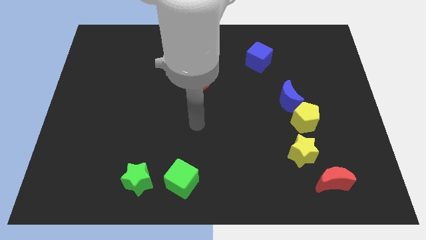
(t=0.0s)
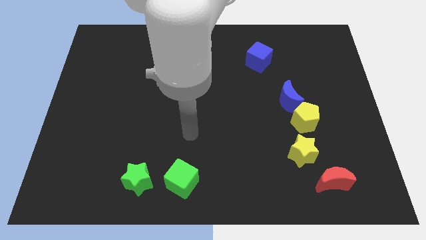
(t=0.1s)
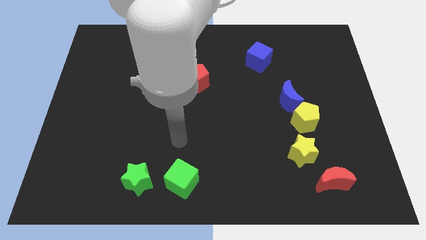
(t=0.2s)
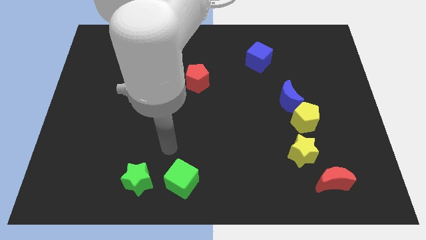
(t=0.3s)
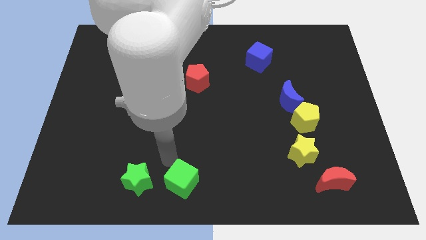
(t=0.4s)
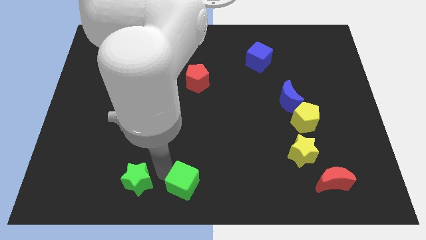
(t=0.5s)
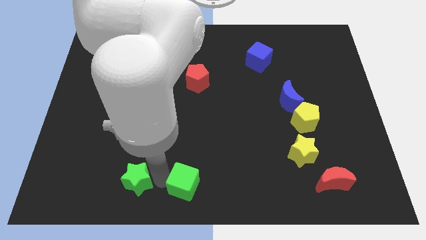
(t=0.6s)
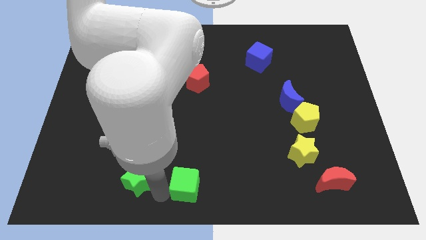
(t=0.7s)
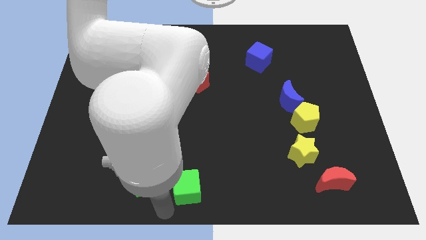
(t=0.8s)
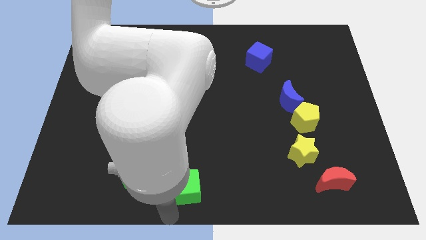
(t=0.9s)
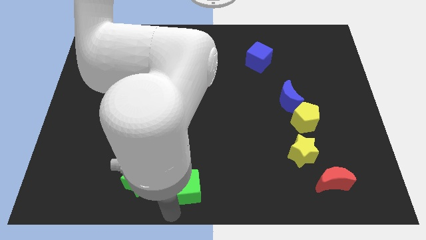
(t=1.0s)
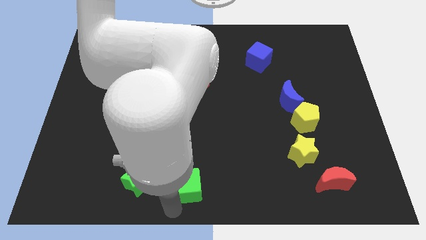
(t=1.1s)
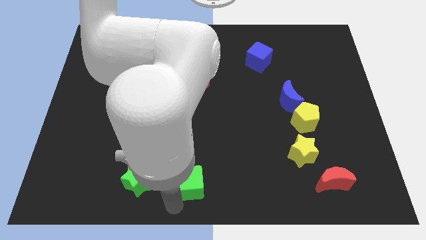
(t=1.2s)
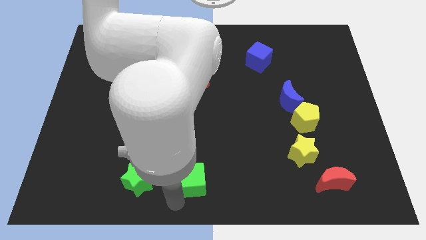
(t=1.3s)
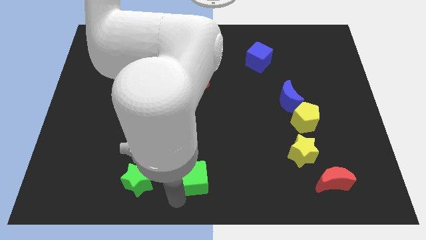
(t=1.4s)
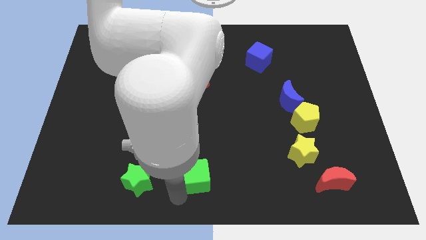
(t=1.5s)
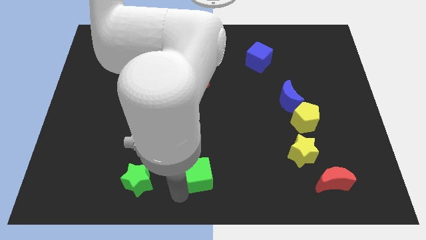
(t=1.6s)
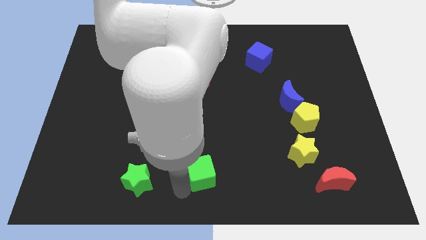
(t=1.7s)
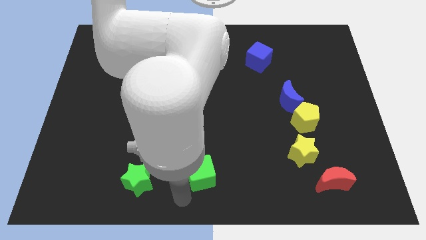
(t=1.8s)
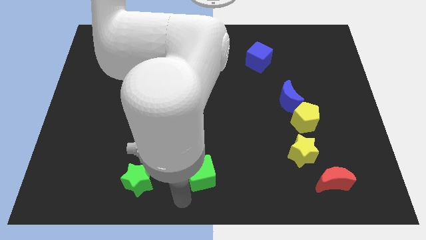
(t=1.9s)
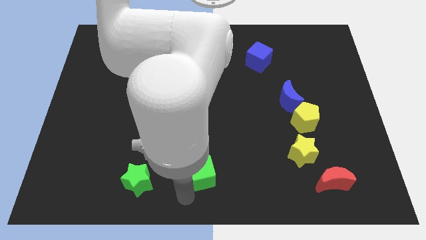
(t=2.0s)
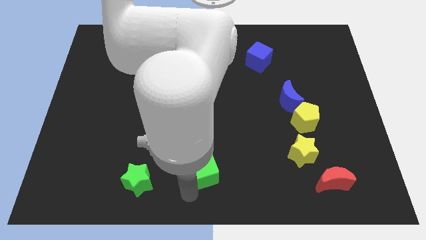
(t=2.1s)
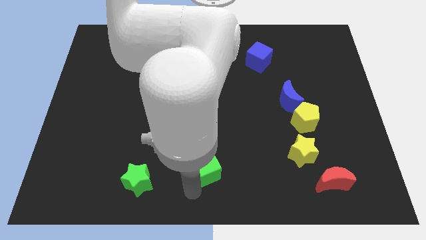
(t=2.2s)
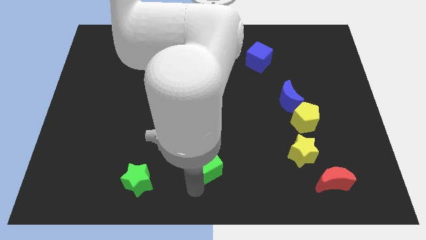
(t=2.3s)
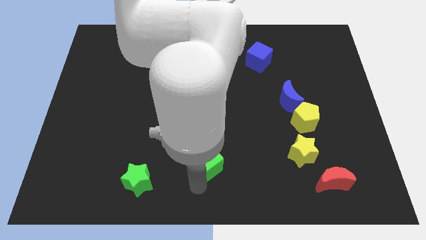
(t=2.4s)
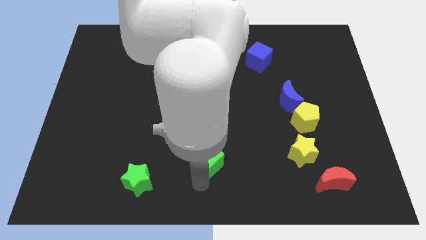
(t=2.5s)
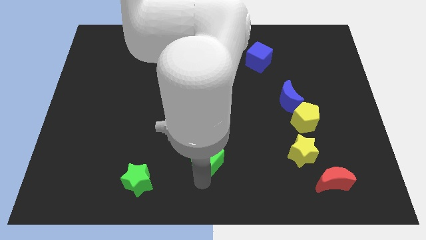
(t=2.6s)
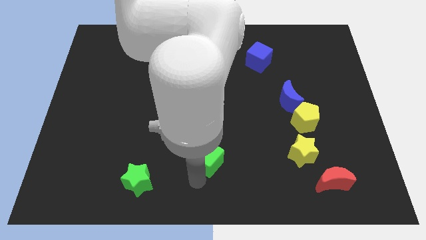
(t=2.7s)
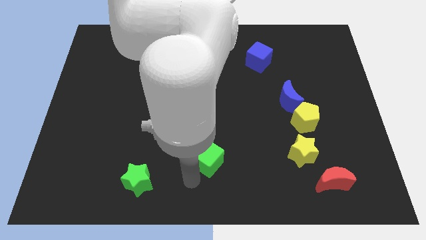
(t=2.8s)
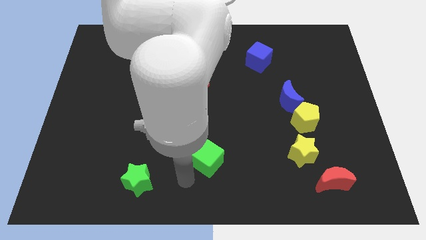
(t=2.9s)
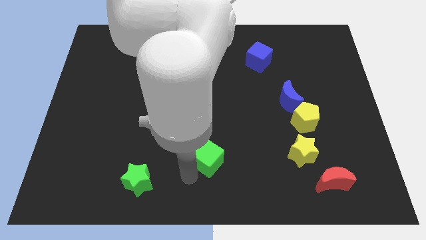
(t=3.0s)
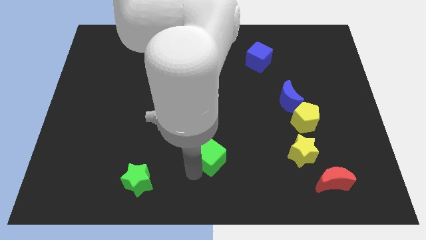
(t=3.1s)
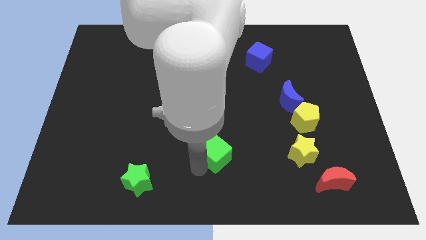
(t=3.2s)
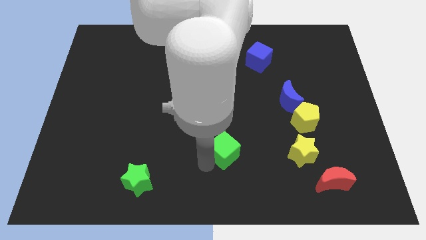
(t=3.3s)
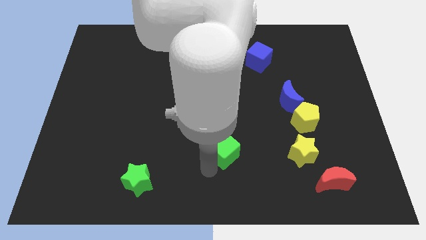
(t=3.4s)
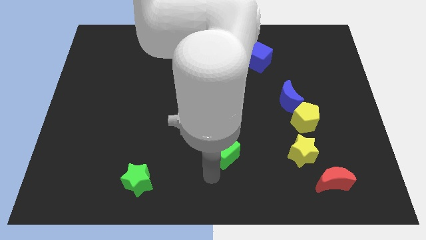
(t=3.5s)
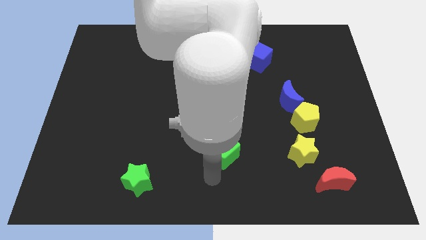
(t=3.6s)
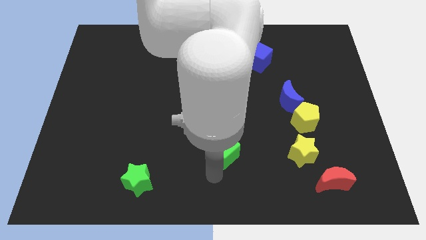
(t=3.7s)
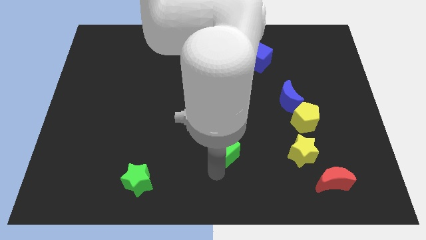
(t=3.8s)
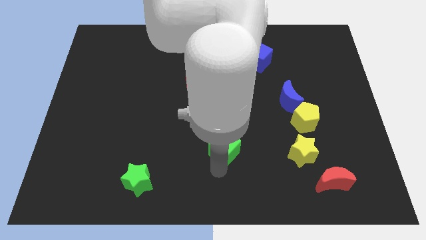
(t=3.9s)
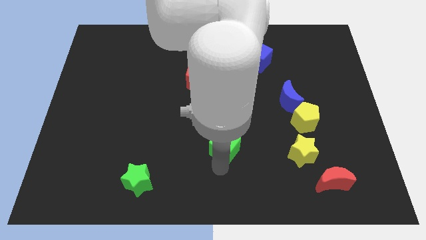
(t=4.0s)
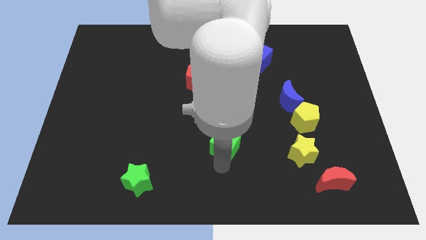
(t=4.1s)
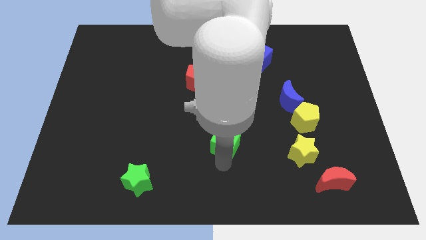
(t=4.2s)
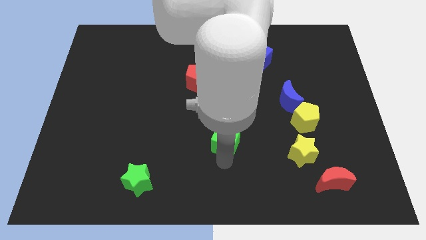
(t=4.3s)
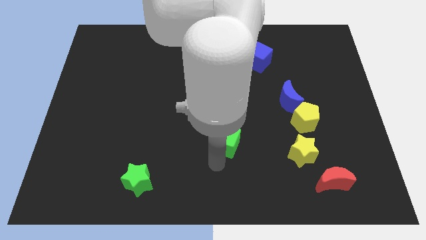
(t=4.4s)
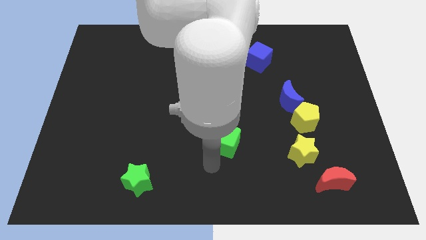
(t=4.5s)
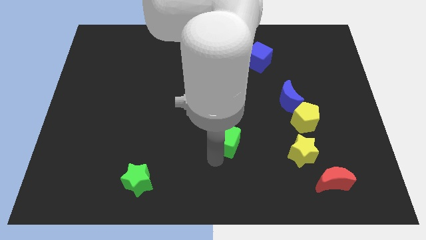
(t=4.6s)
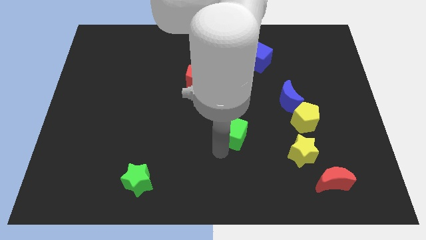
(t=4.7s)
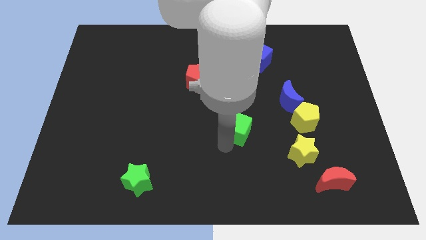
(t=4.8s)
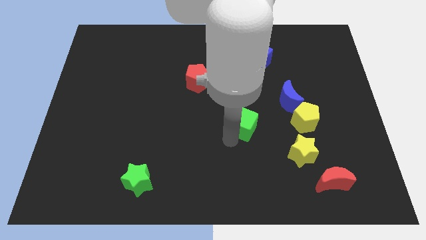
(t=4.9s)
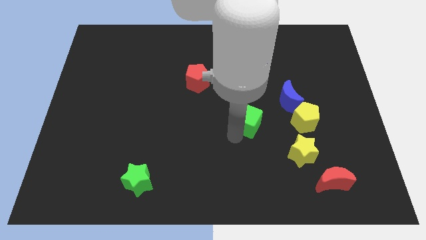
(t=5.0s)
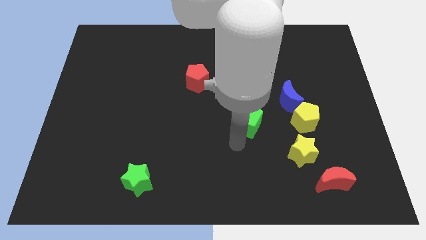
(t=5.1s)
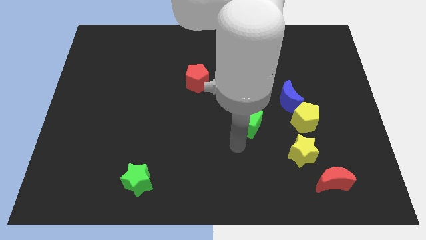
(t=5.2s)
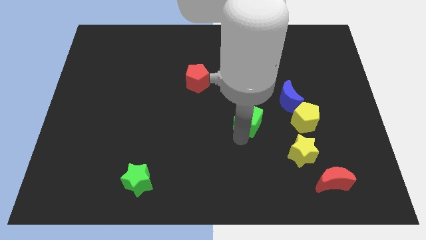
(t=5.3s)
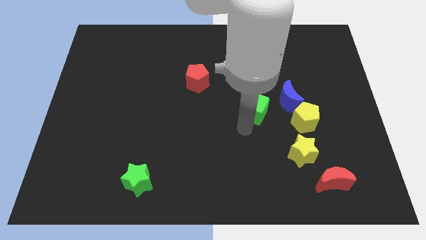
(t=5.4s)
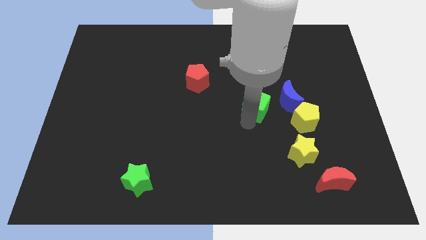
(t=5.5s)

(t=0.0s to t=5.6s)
push the green cube below the blue cube

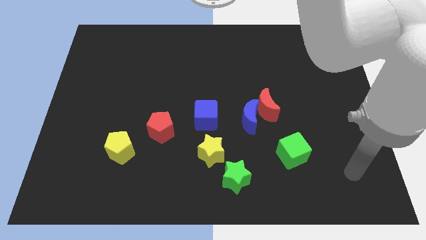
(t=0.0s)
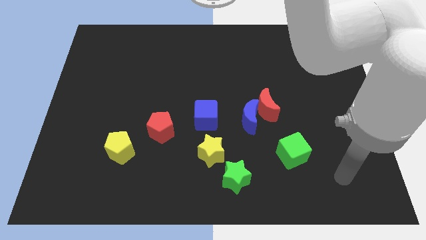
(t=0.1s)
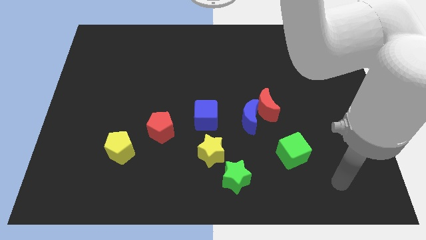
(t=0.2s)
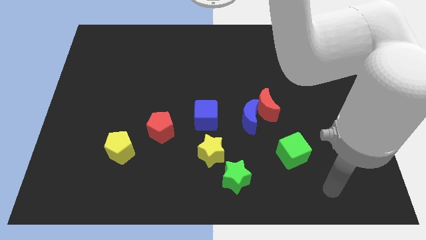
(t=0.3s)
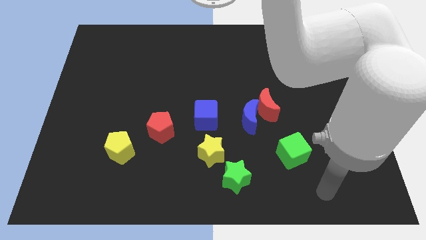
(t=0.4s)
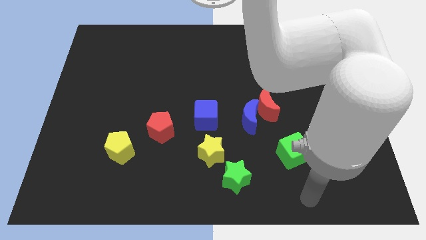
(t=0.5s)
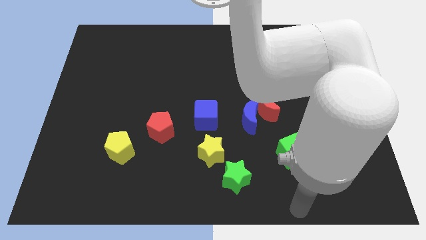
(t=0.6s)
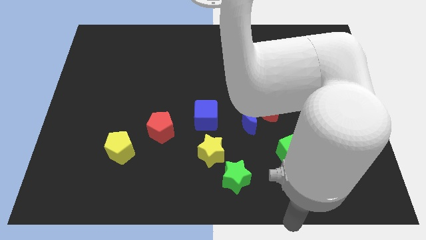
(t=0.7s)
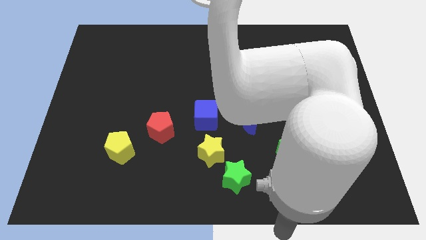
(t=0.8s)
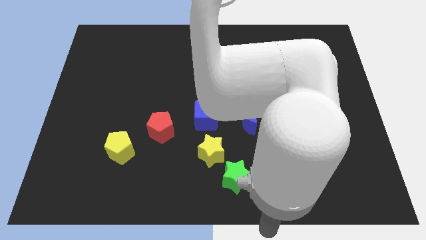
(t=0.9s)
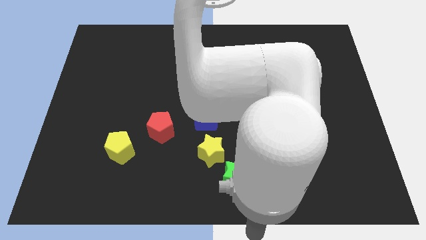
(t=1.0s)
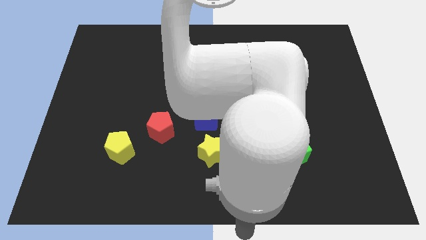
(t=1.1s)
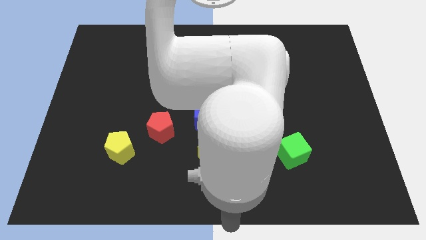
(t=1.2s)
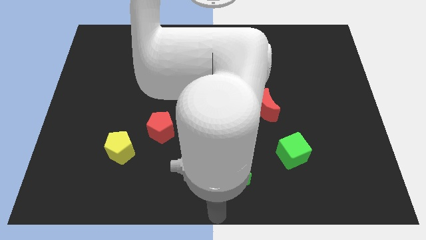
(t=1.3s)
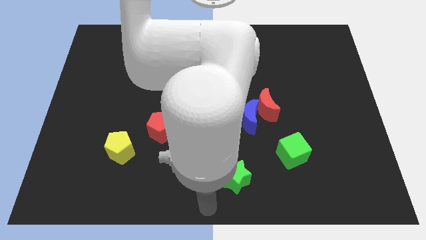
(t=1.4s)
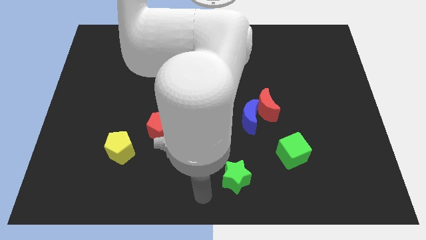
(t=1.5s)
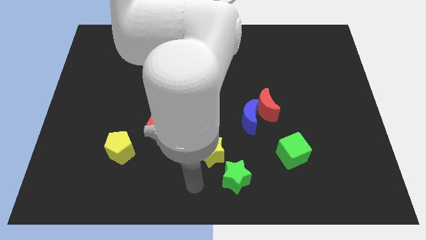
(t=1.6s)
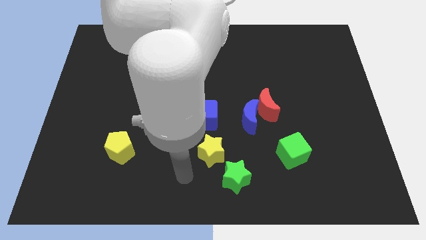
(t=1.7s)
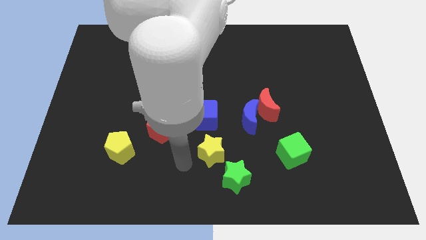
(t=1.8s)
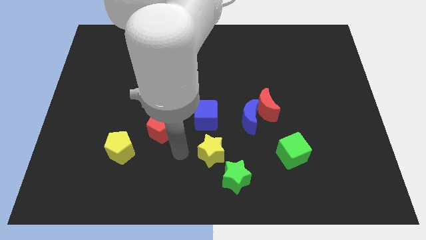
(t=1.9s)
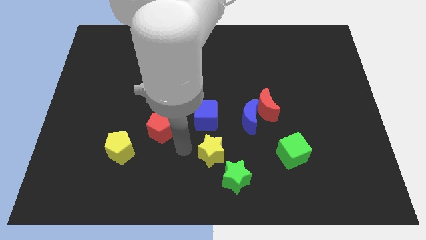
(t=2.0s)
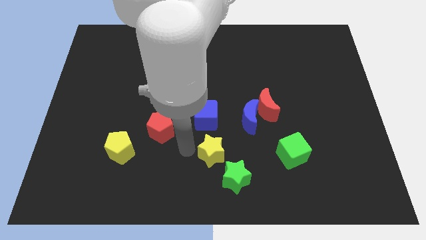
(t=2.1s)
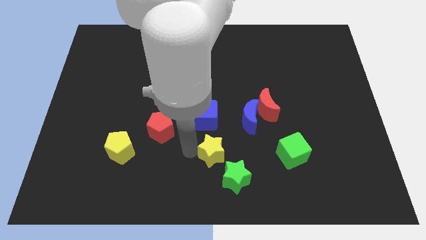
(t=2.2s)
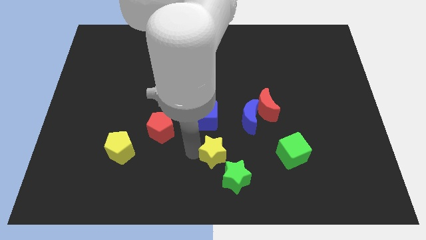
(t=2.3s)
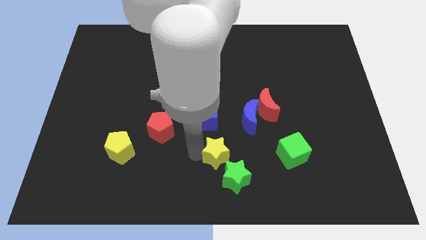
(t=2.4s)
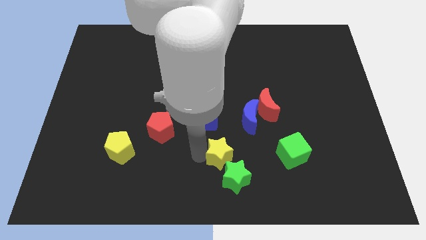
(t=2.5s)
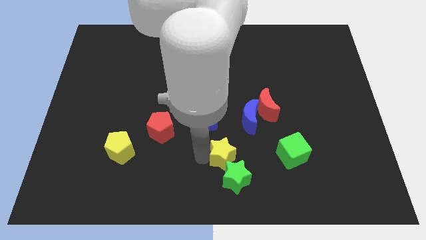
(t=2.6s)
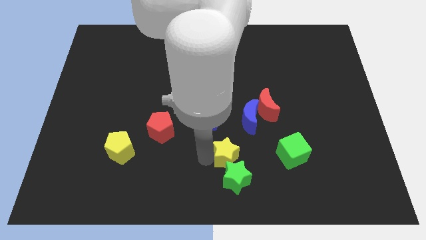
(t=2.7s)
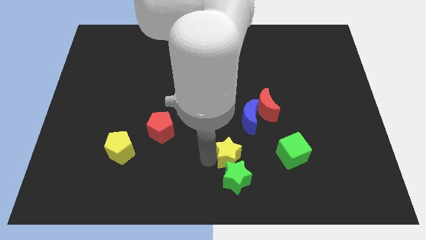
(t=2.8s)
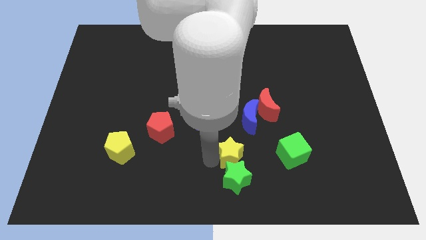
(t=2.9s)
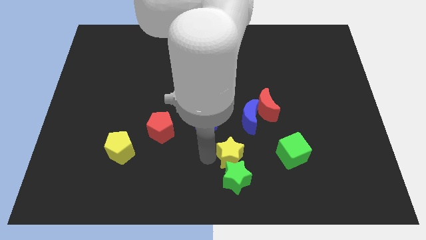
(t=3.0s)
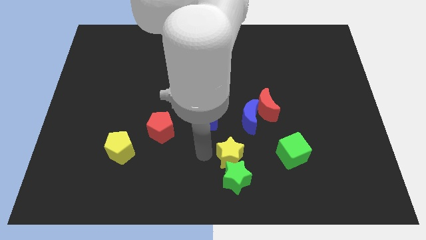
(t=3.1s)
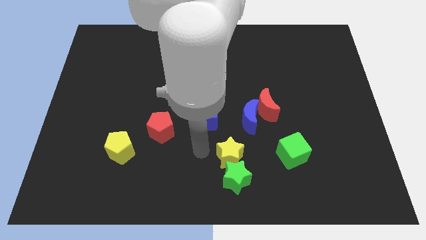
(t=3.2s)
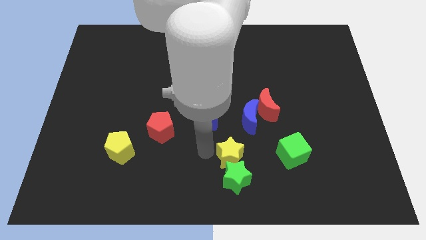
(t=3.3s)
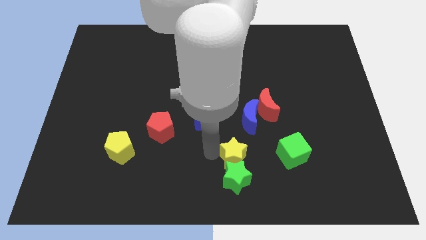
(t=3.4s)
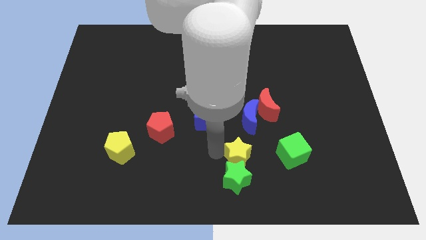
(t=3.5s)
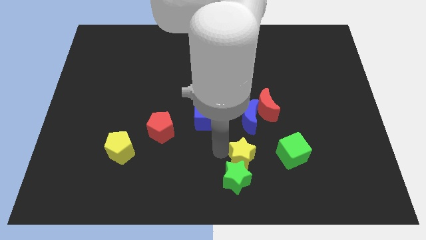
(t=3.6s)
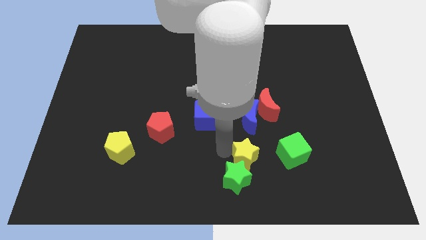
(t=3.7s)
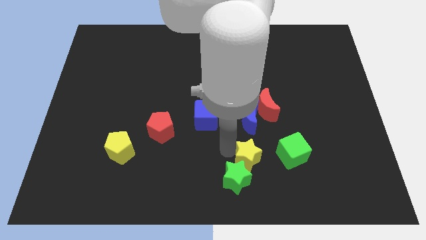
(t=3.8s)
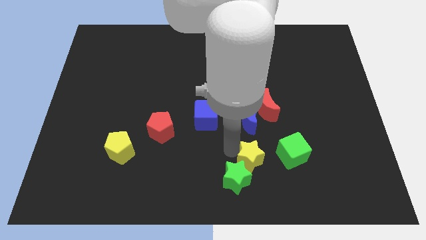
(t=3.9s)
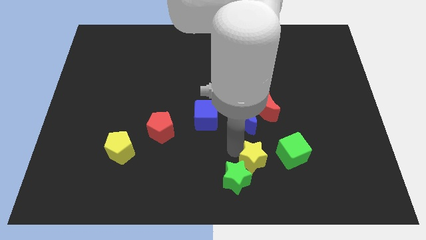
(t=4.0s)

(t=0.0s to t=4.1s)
push the yellow star to the right side of the green star
